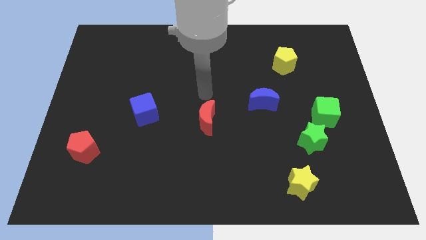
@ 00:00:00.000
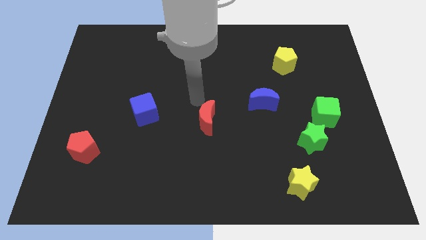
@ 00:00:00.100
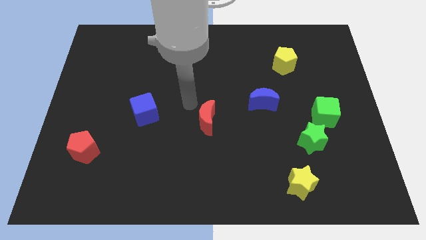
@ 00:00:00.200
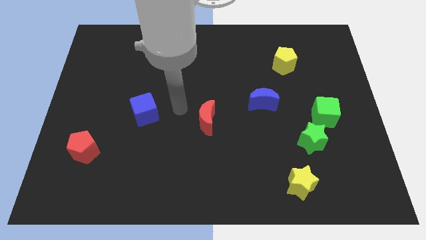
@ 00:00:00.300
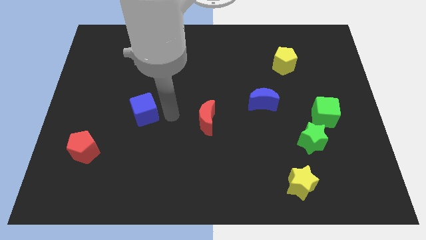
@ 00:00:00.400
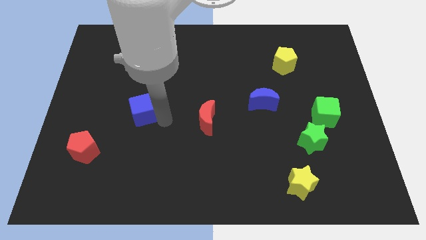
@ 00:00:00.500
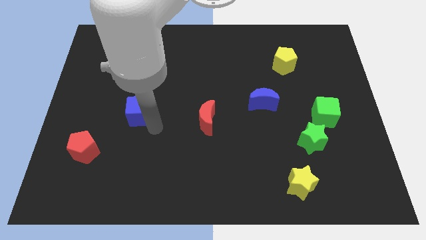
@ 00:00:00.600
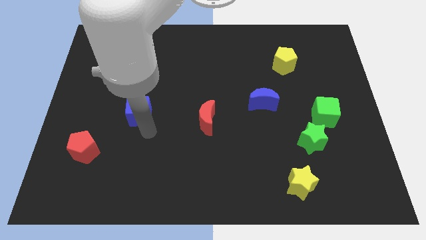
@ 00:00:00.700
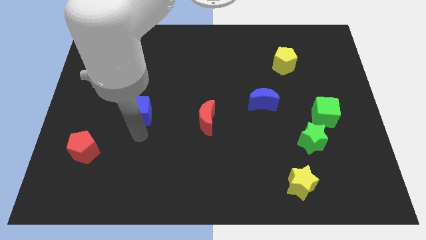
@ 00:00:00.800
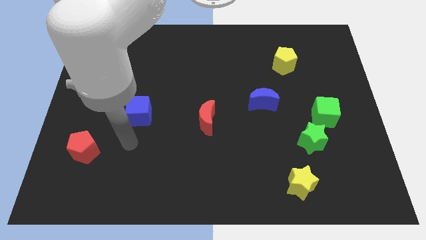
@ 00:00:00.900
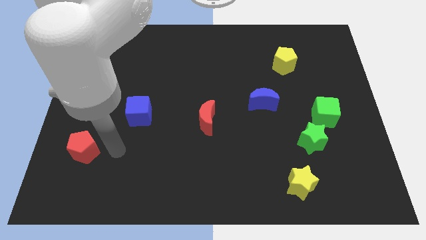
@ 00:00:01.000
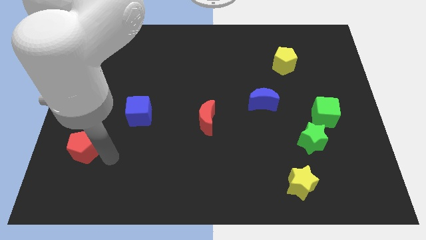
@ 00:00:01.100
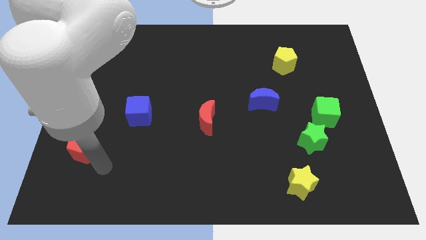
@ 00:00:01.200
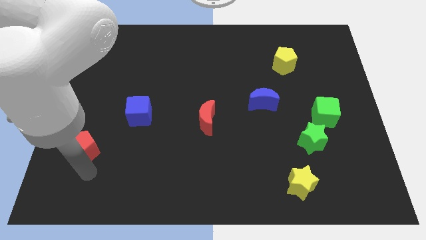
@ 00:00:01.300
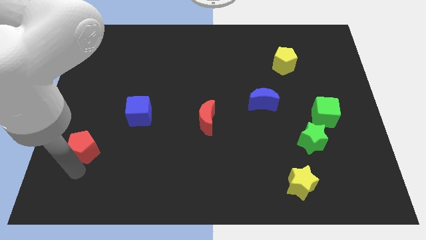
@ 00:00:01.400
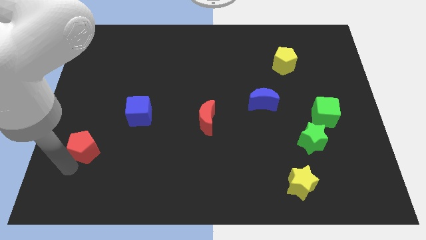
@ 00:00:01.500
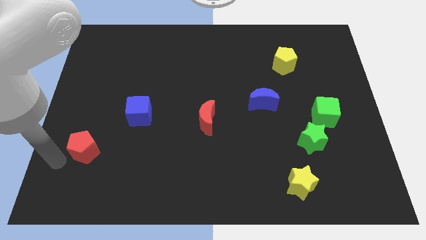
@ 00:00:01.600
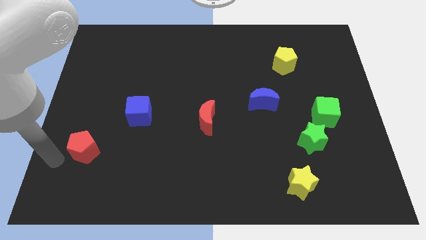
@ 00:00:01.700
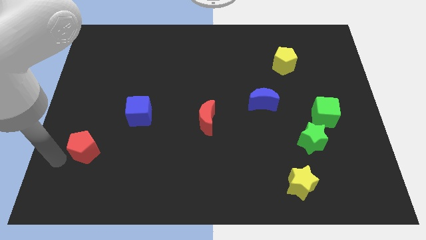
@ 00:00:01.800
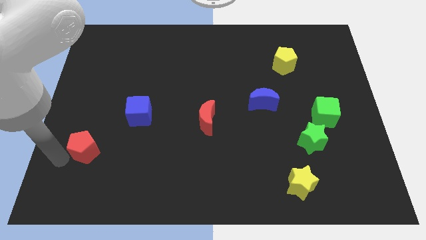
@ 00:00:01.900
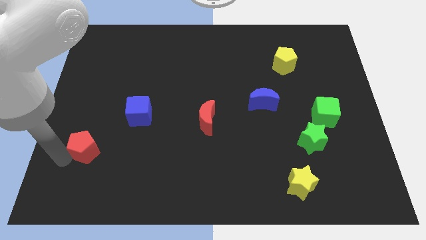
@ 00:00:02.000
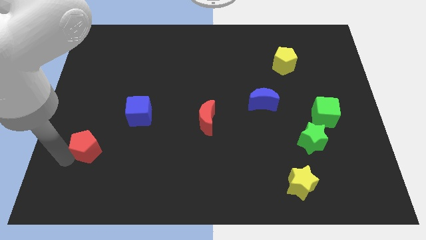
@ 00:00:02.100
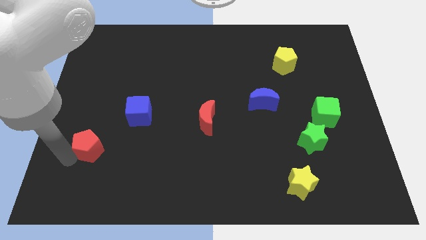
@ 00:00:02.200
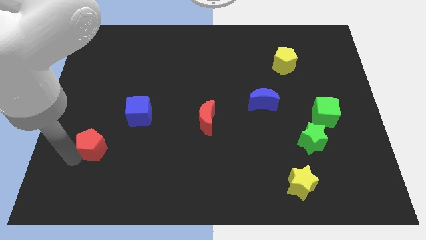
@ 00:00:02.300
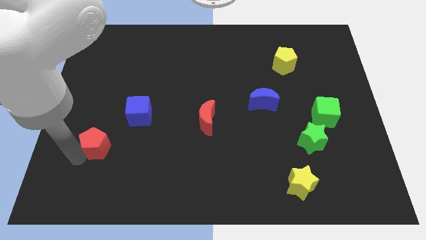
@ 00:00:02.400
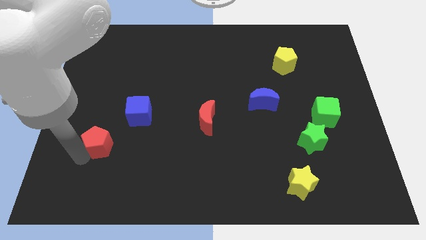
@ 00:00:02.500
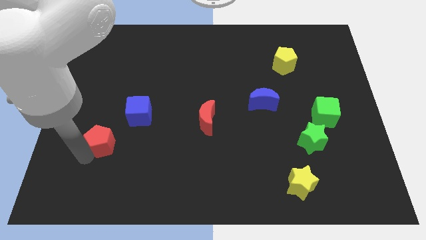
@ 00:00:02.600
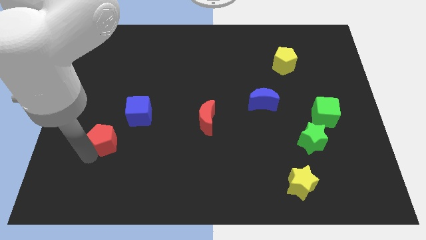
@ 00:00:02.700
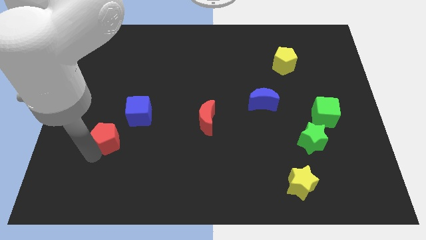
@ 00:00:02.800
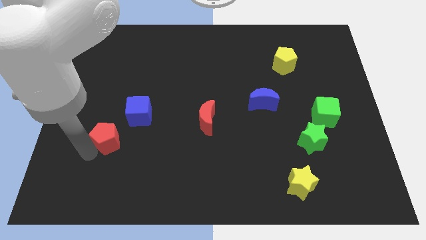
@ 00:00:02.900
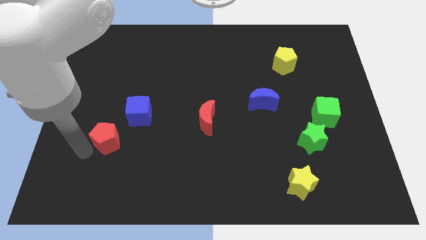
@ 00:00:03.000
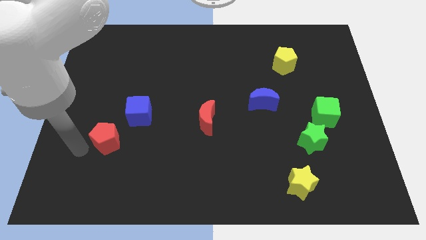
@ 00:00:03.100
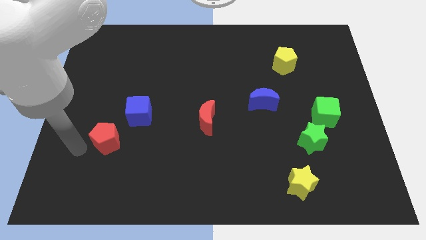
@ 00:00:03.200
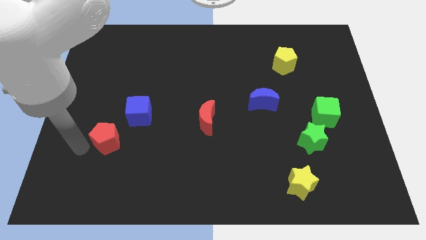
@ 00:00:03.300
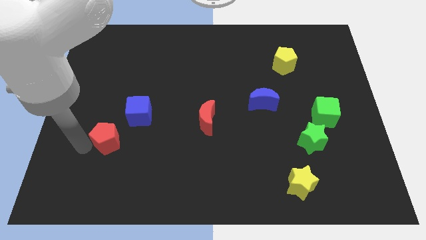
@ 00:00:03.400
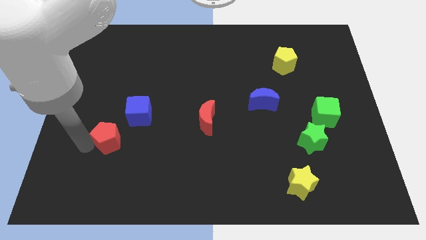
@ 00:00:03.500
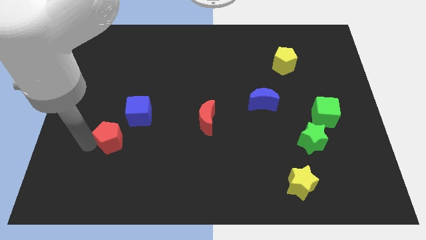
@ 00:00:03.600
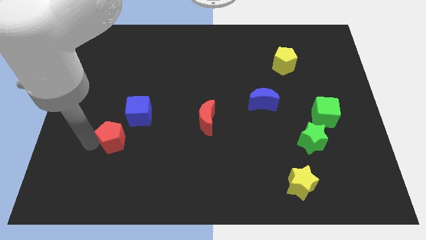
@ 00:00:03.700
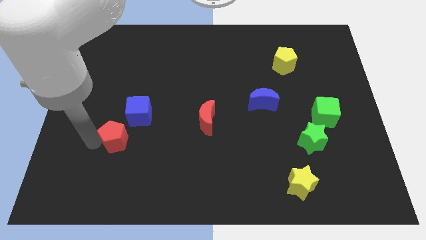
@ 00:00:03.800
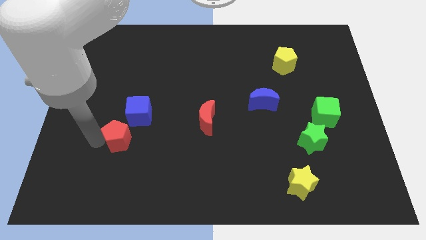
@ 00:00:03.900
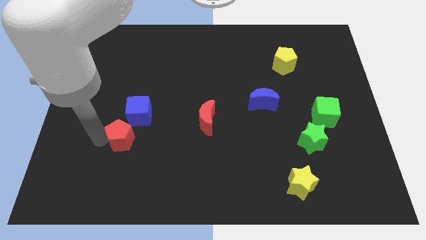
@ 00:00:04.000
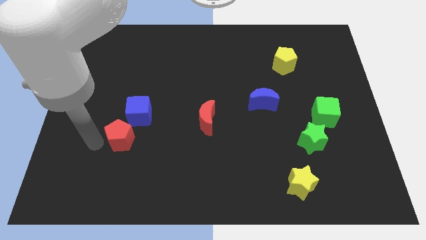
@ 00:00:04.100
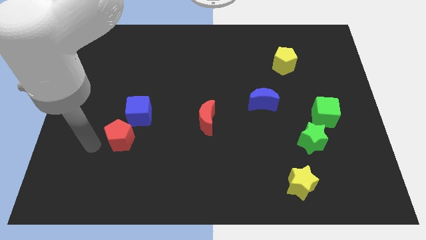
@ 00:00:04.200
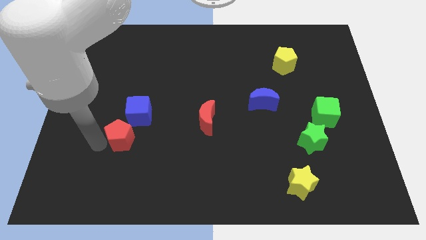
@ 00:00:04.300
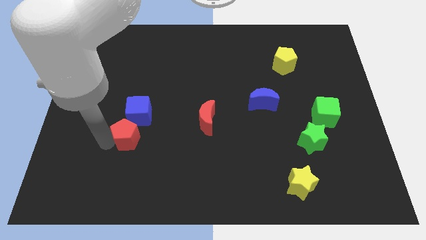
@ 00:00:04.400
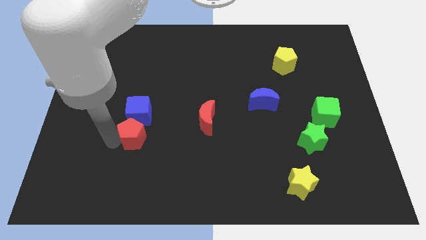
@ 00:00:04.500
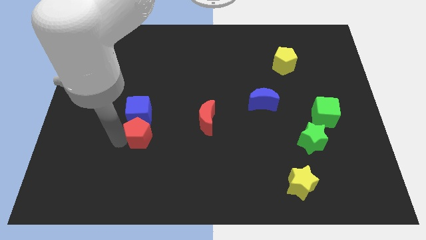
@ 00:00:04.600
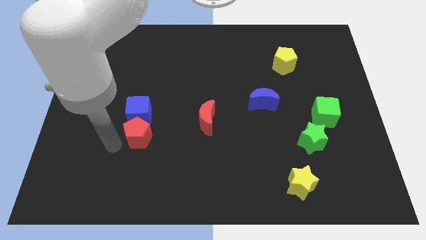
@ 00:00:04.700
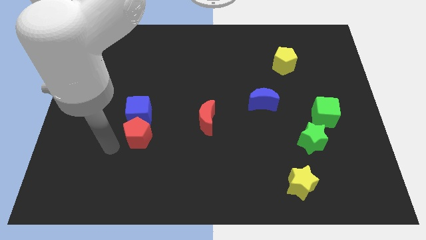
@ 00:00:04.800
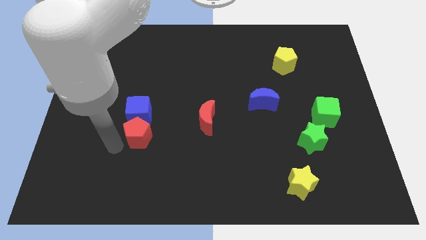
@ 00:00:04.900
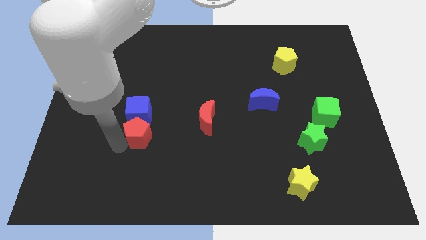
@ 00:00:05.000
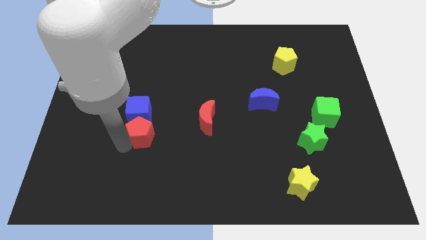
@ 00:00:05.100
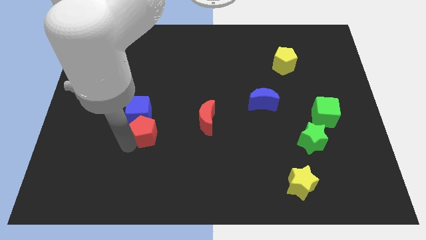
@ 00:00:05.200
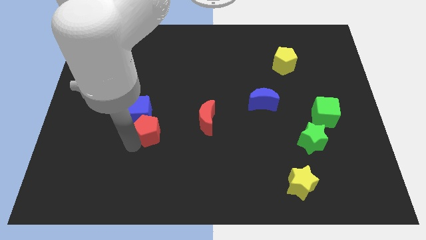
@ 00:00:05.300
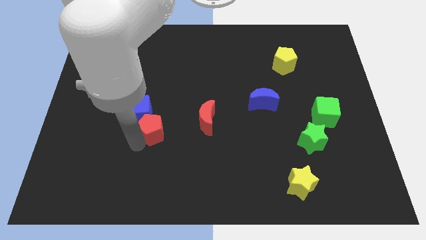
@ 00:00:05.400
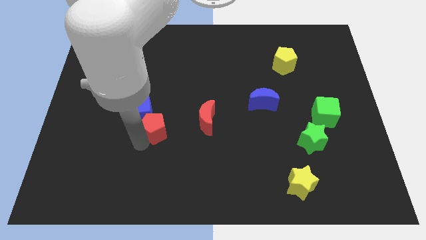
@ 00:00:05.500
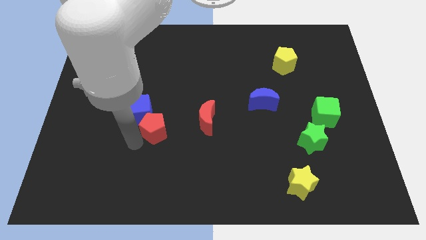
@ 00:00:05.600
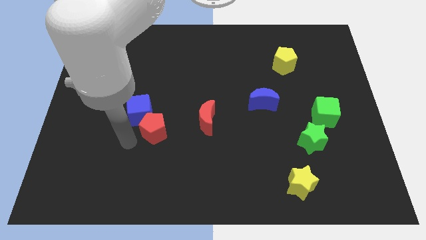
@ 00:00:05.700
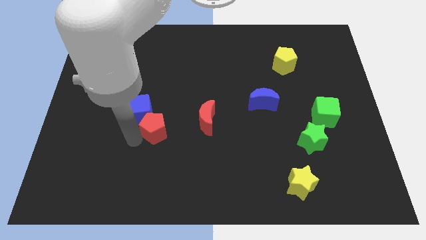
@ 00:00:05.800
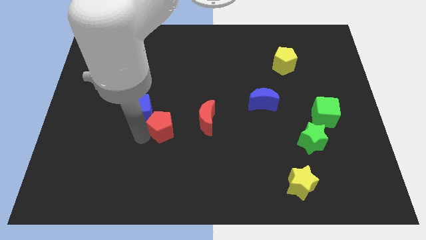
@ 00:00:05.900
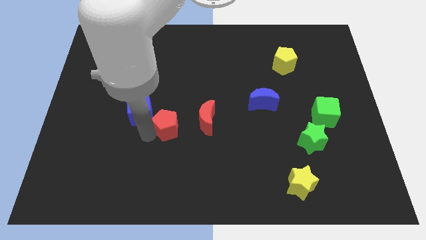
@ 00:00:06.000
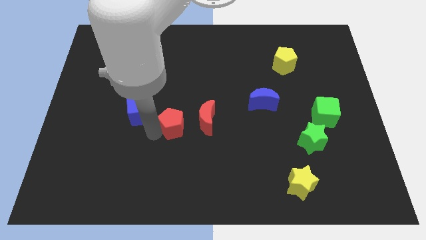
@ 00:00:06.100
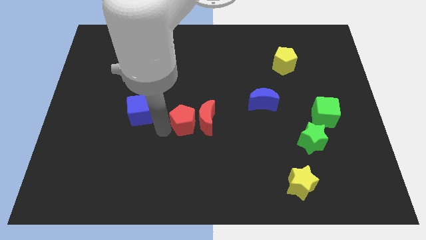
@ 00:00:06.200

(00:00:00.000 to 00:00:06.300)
move the red pentagon towards the red moon

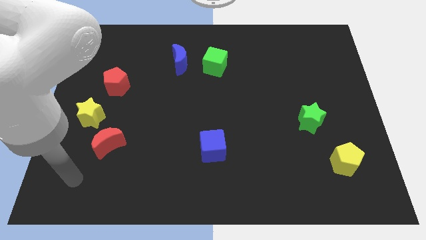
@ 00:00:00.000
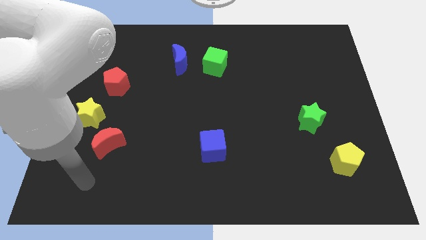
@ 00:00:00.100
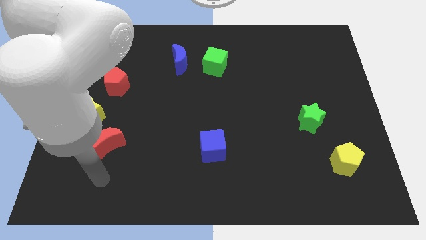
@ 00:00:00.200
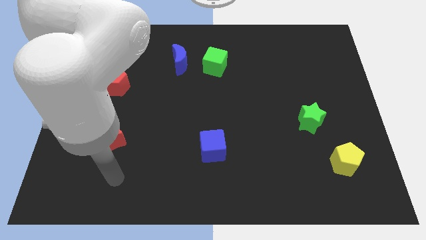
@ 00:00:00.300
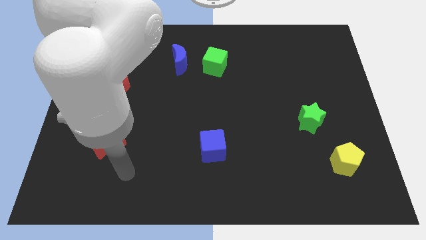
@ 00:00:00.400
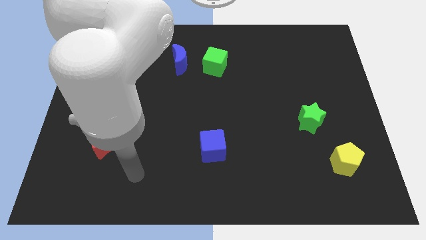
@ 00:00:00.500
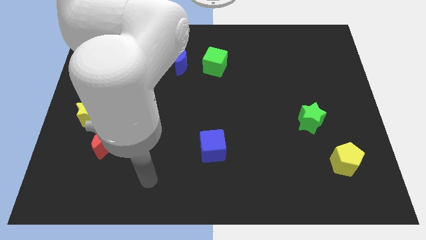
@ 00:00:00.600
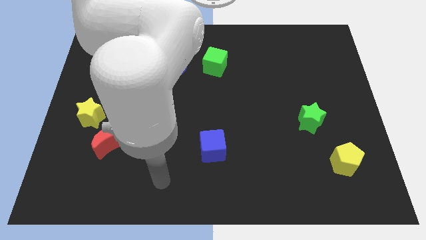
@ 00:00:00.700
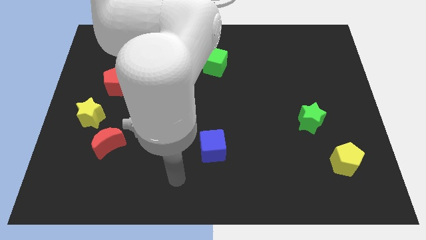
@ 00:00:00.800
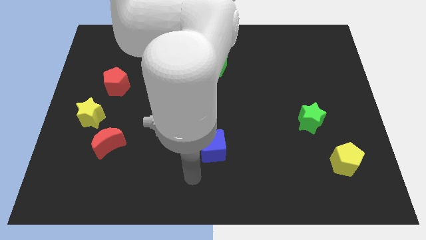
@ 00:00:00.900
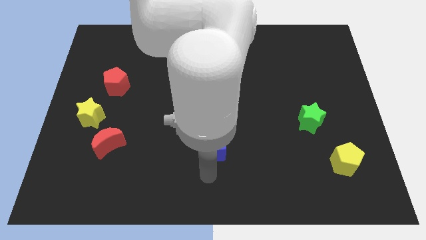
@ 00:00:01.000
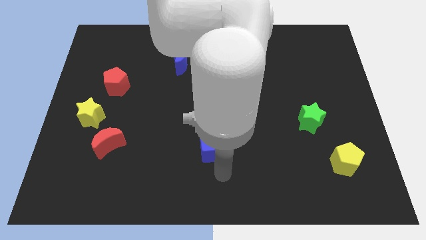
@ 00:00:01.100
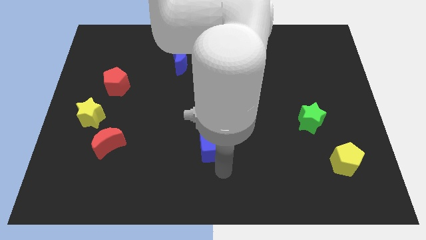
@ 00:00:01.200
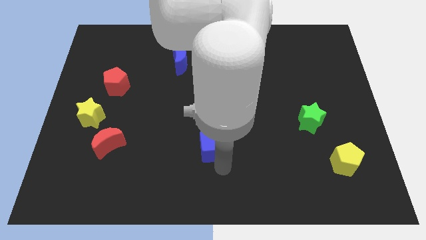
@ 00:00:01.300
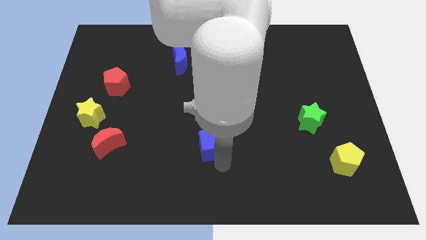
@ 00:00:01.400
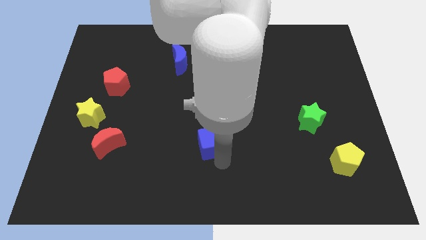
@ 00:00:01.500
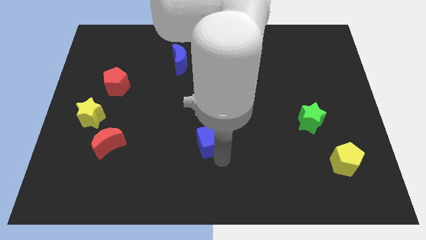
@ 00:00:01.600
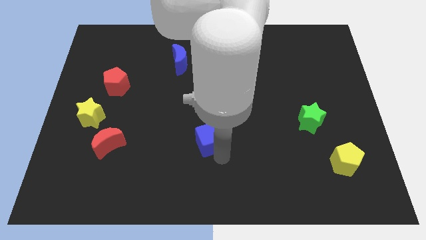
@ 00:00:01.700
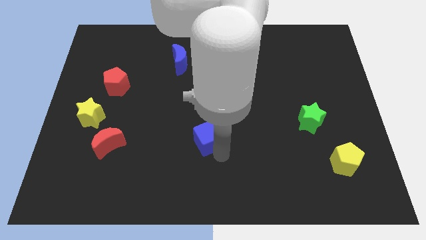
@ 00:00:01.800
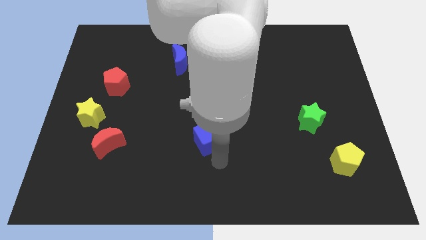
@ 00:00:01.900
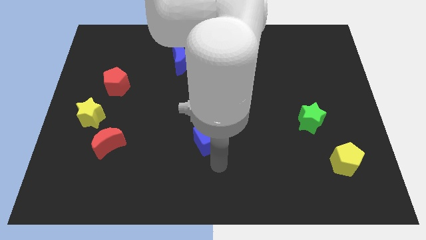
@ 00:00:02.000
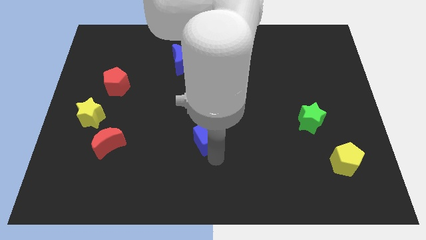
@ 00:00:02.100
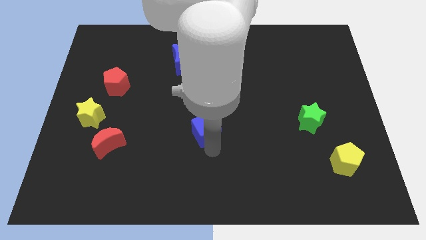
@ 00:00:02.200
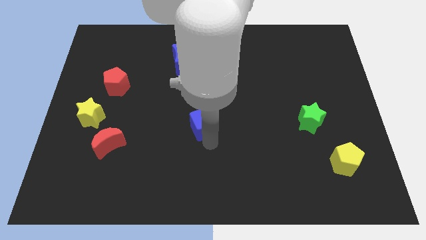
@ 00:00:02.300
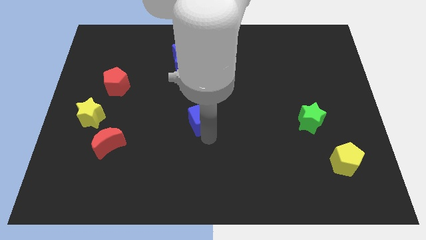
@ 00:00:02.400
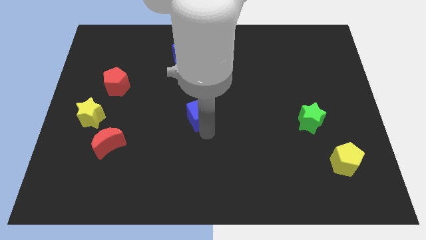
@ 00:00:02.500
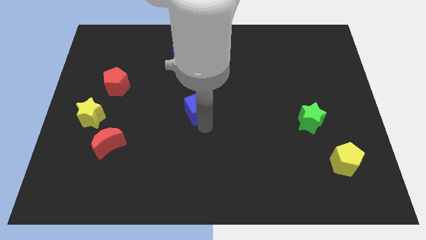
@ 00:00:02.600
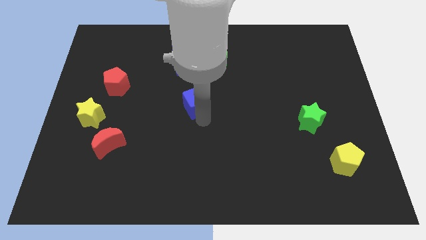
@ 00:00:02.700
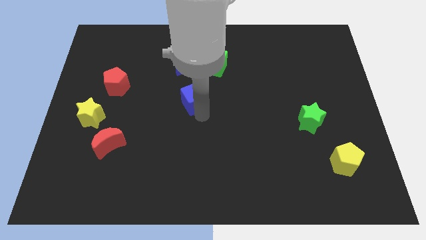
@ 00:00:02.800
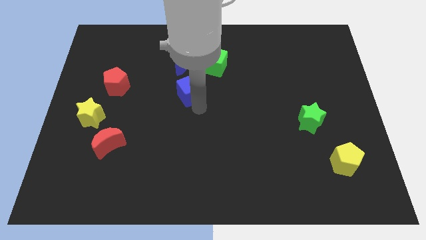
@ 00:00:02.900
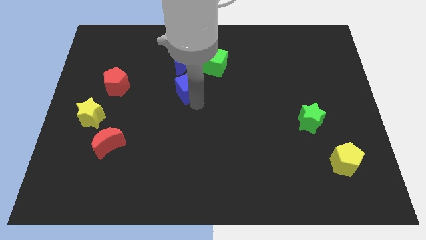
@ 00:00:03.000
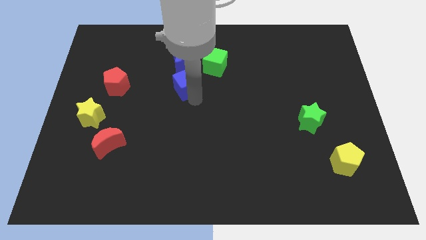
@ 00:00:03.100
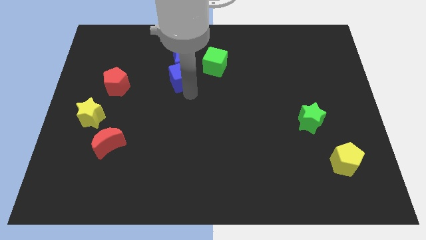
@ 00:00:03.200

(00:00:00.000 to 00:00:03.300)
slide the blue cube close to the blue moon
